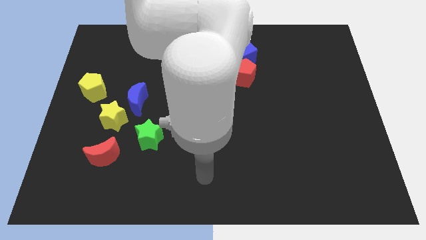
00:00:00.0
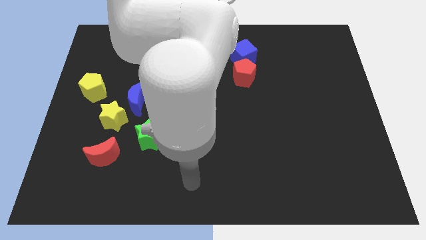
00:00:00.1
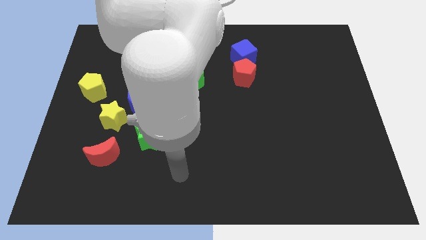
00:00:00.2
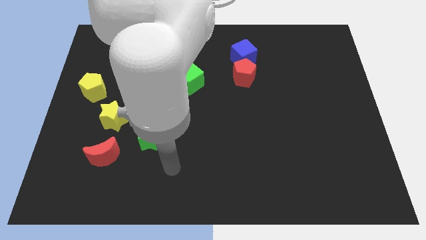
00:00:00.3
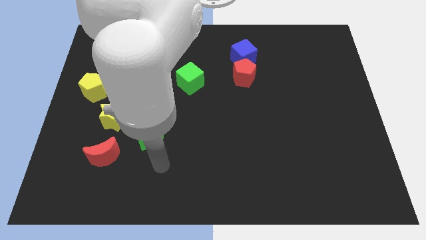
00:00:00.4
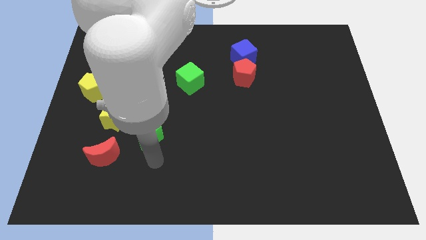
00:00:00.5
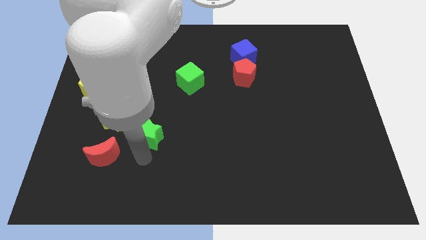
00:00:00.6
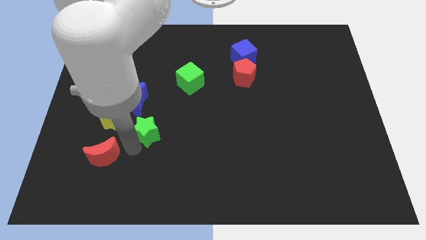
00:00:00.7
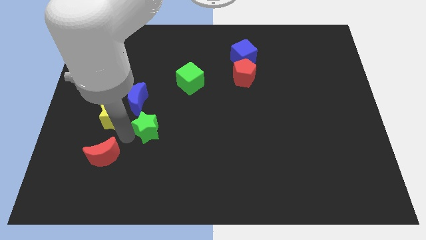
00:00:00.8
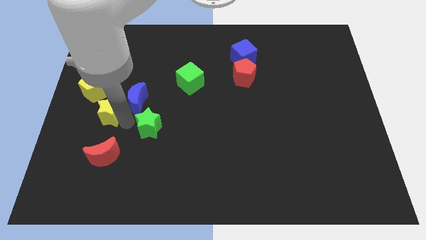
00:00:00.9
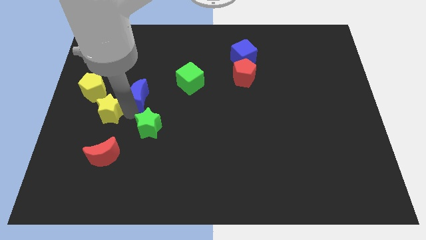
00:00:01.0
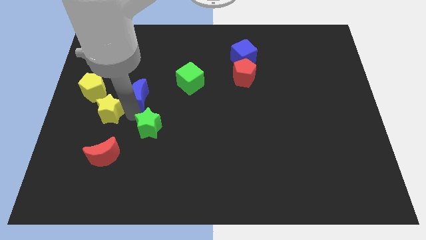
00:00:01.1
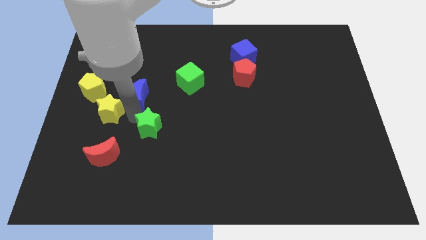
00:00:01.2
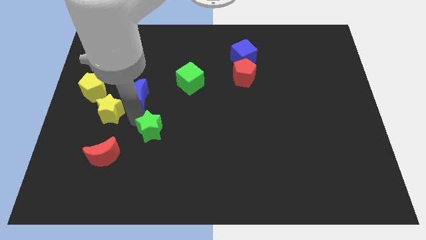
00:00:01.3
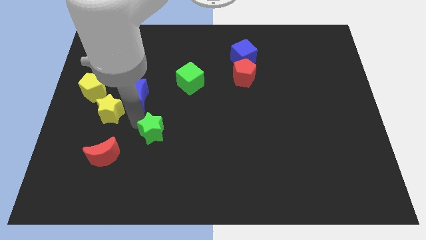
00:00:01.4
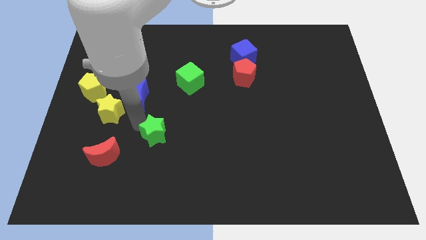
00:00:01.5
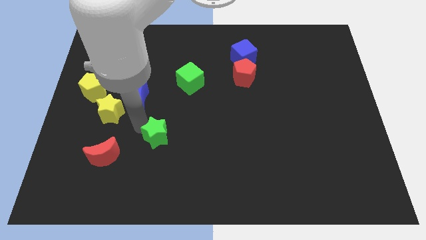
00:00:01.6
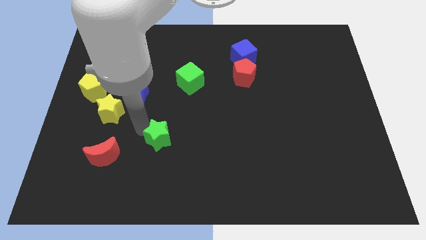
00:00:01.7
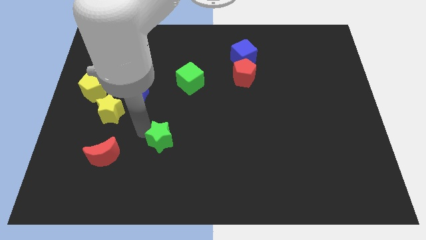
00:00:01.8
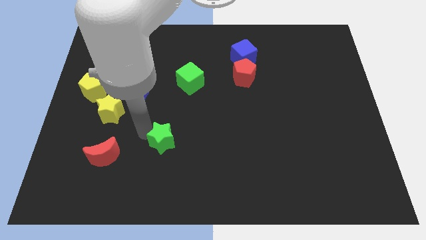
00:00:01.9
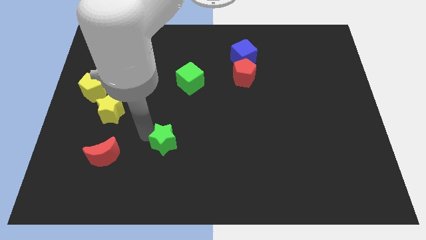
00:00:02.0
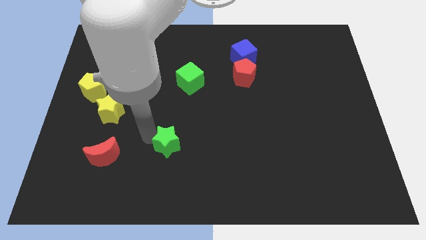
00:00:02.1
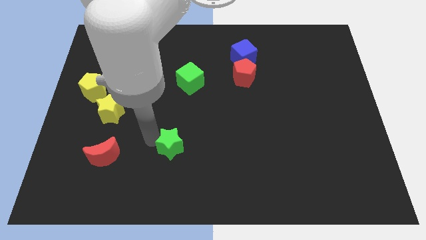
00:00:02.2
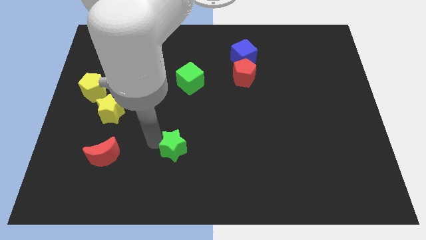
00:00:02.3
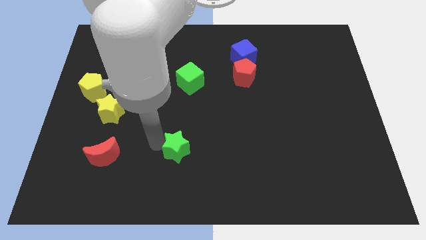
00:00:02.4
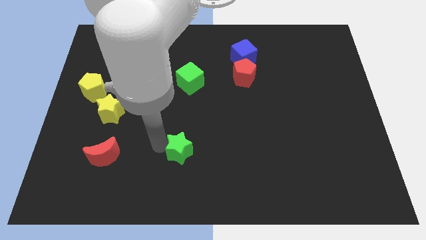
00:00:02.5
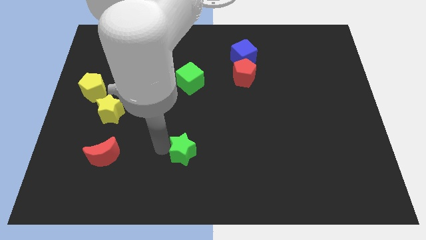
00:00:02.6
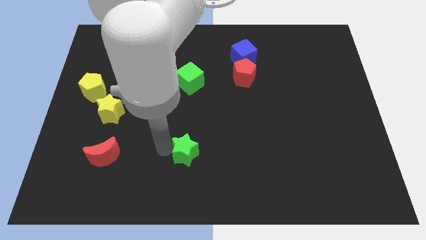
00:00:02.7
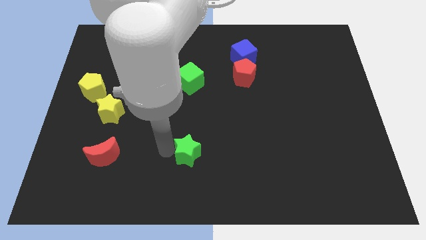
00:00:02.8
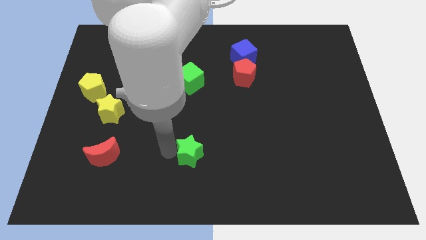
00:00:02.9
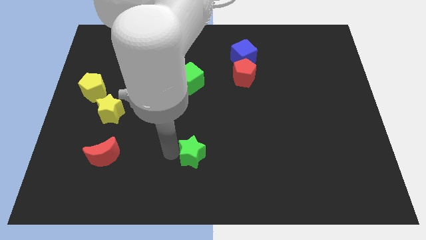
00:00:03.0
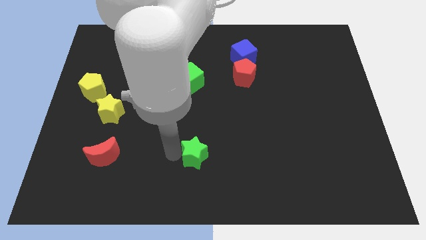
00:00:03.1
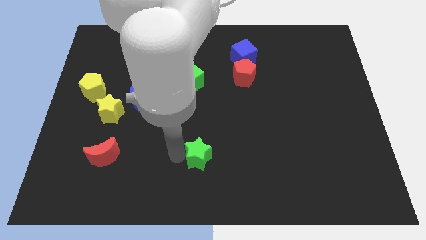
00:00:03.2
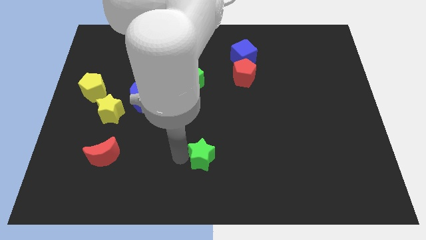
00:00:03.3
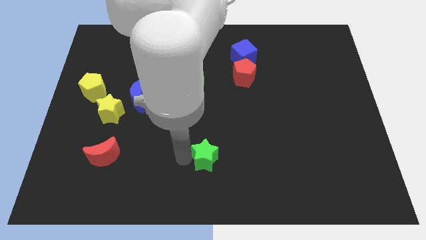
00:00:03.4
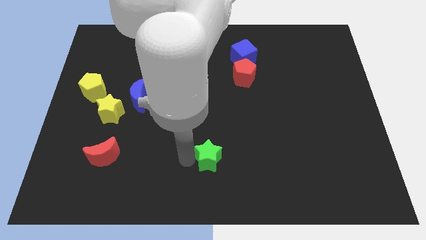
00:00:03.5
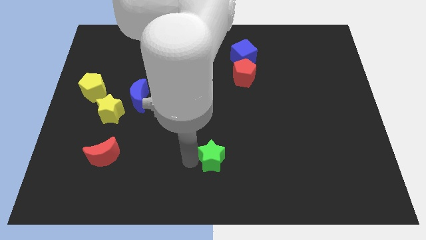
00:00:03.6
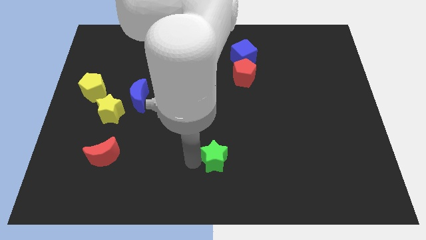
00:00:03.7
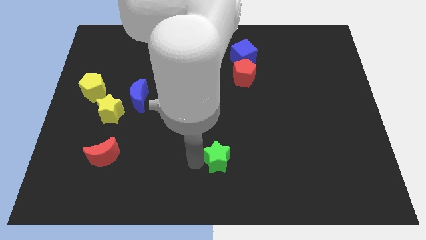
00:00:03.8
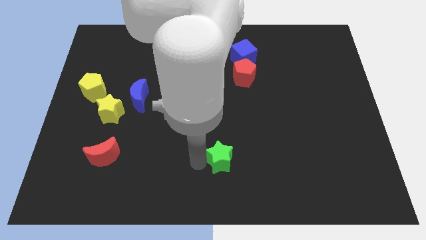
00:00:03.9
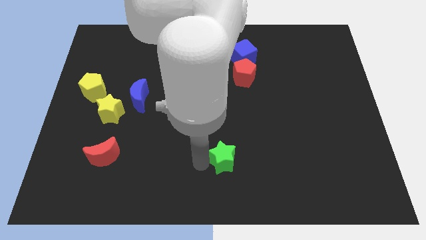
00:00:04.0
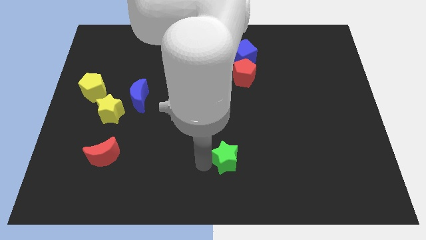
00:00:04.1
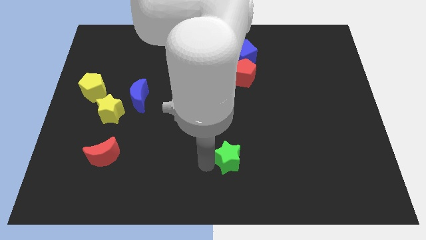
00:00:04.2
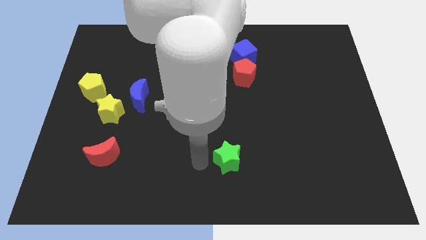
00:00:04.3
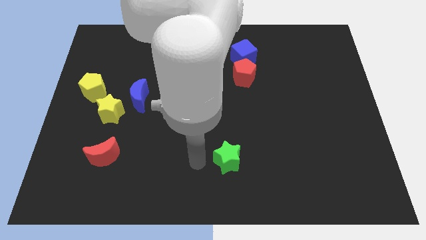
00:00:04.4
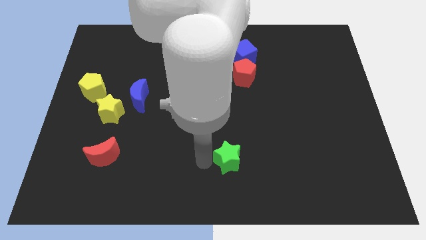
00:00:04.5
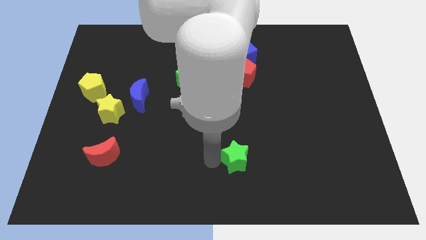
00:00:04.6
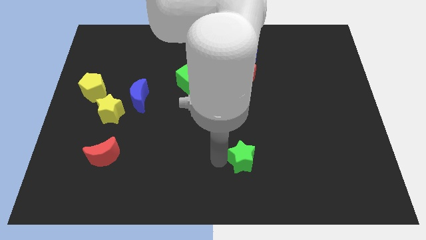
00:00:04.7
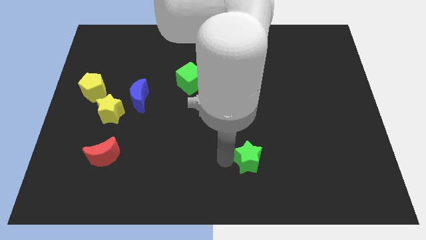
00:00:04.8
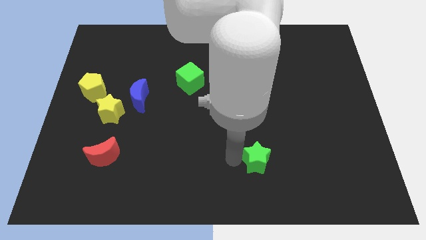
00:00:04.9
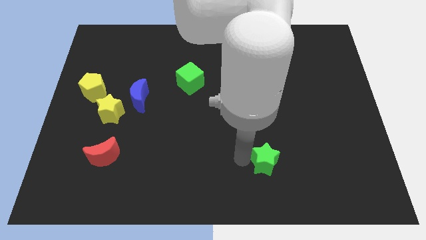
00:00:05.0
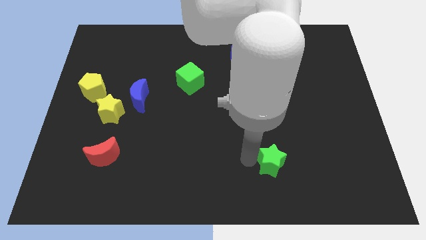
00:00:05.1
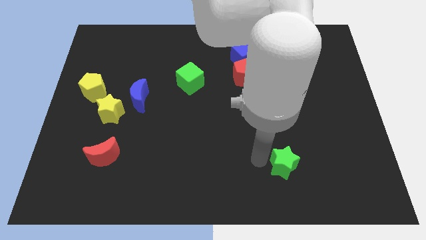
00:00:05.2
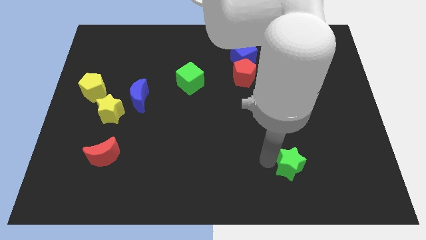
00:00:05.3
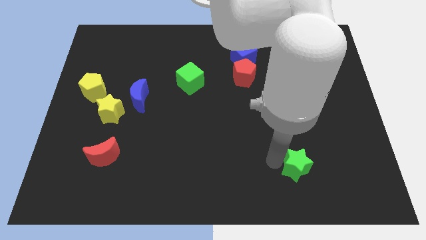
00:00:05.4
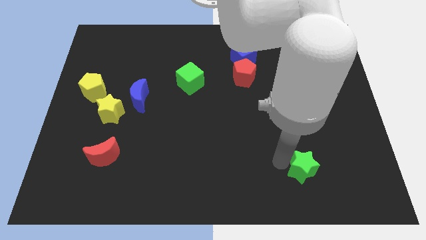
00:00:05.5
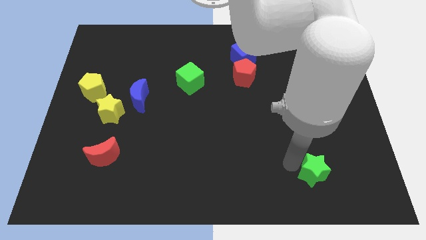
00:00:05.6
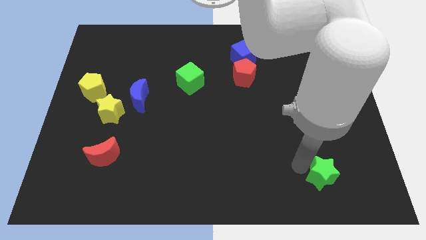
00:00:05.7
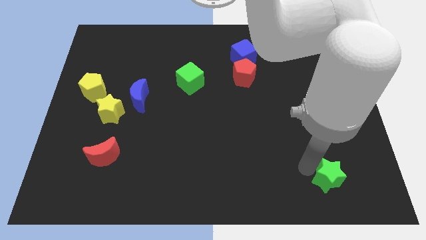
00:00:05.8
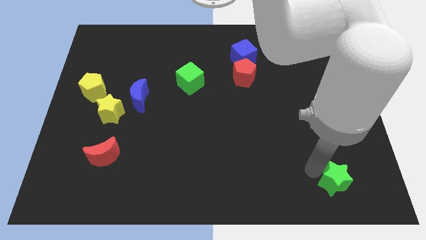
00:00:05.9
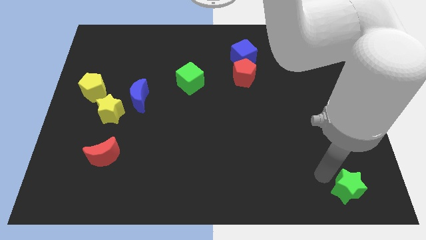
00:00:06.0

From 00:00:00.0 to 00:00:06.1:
push the green star to the bottom right corner
